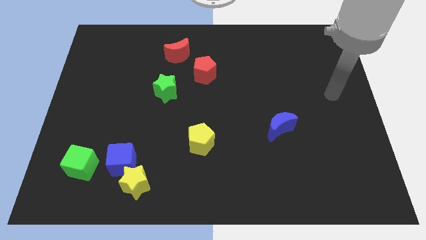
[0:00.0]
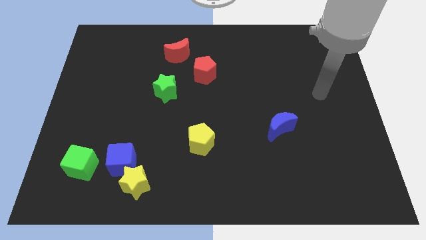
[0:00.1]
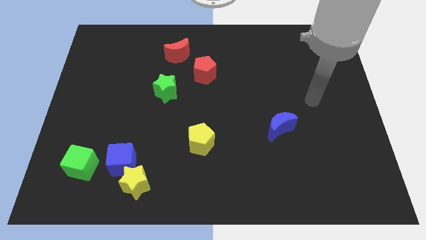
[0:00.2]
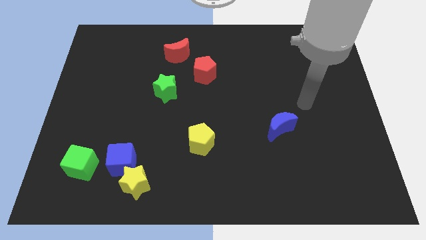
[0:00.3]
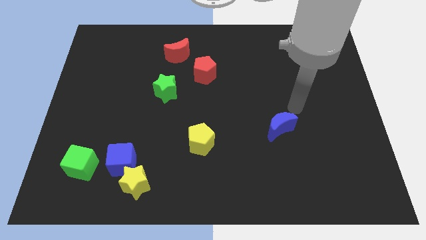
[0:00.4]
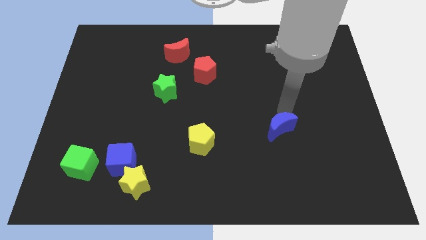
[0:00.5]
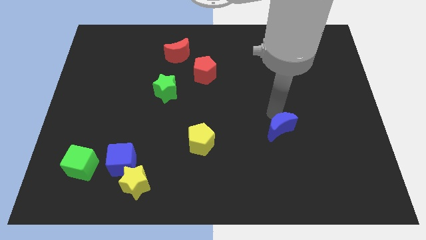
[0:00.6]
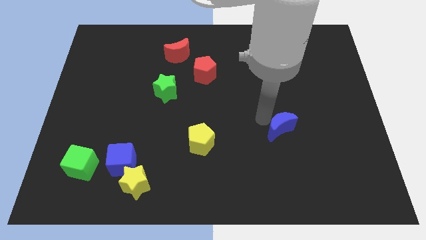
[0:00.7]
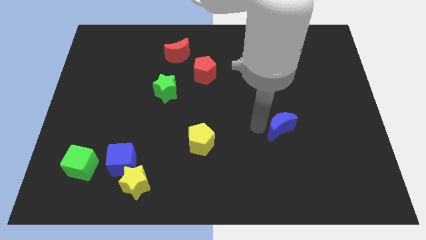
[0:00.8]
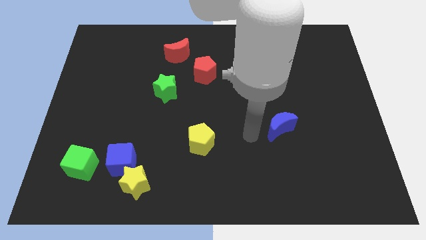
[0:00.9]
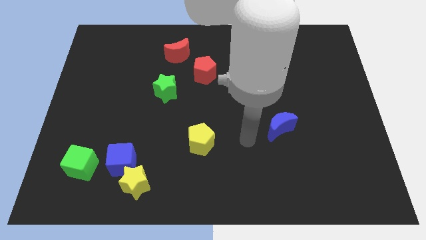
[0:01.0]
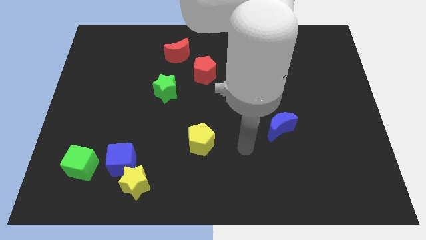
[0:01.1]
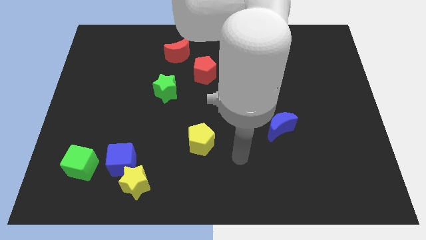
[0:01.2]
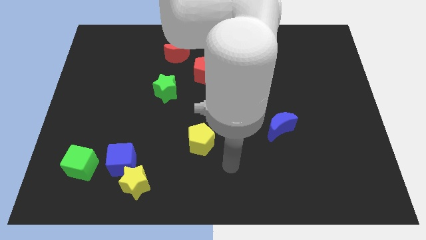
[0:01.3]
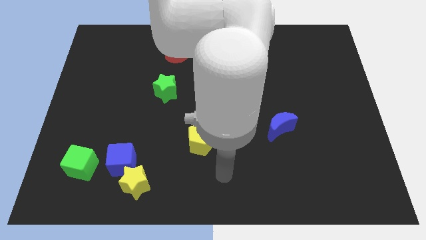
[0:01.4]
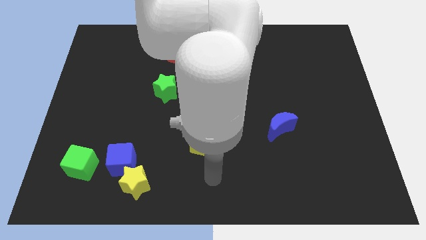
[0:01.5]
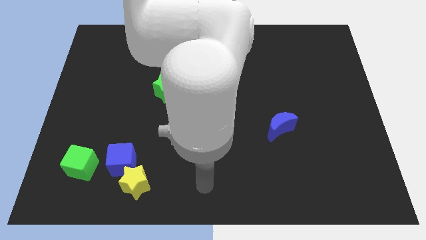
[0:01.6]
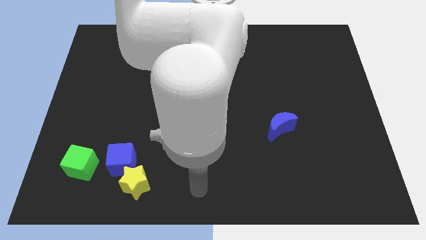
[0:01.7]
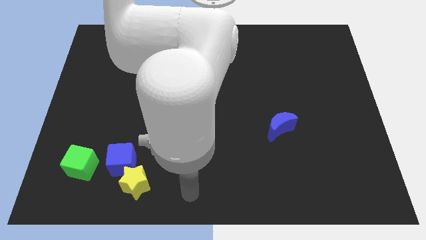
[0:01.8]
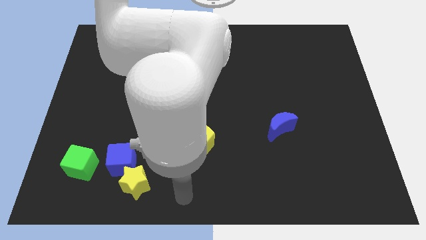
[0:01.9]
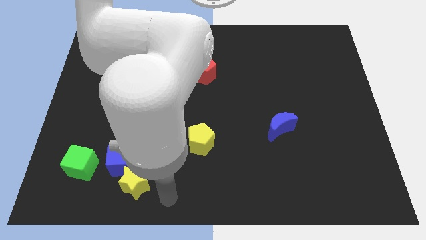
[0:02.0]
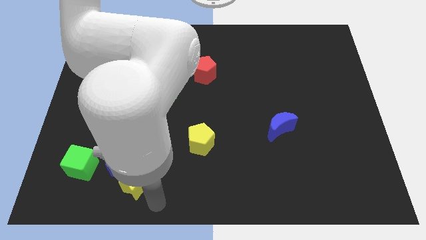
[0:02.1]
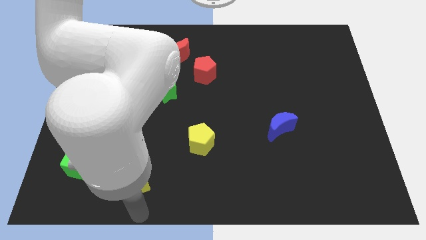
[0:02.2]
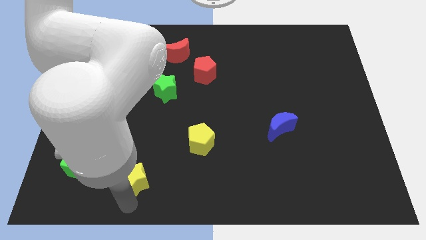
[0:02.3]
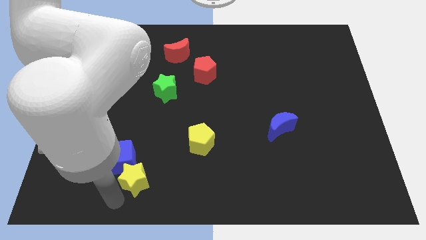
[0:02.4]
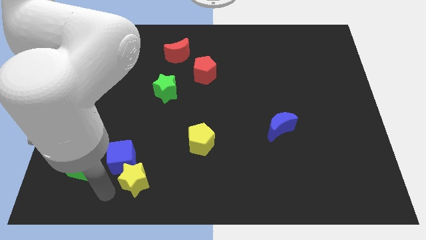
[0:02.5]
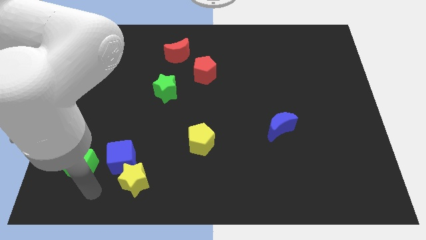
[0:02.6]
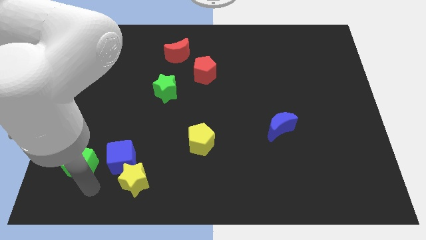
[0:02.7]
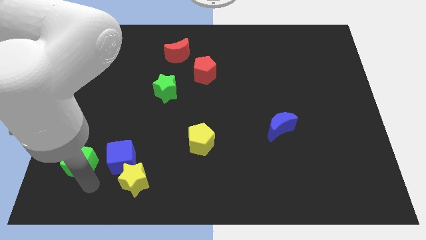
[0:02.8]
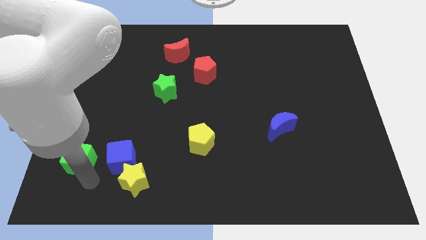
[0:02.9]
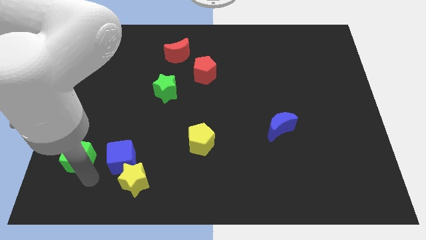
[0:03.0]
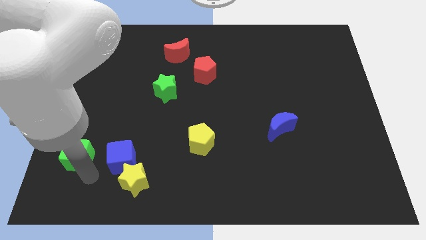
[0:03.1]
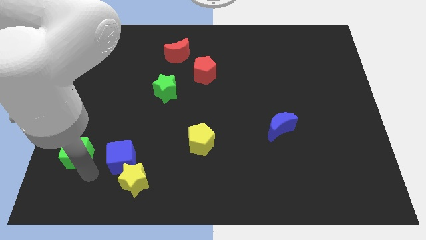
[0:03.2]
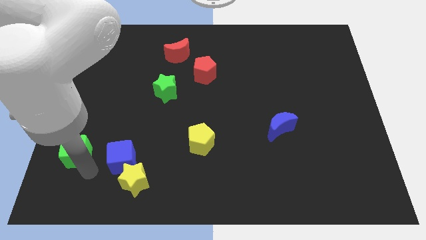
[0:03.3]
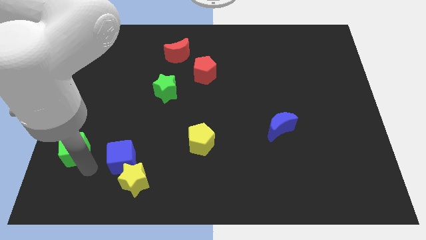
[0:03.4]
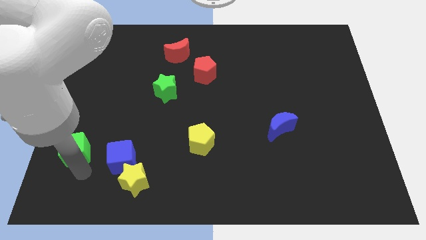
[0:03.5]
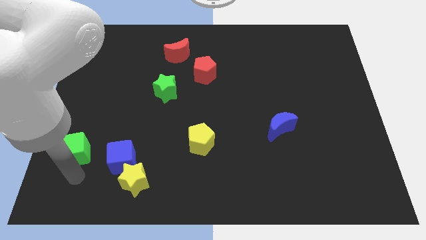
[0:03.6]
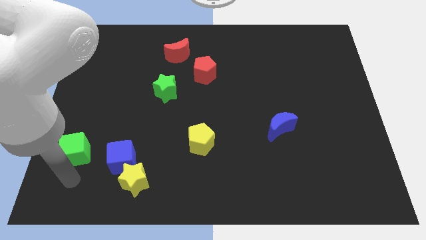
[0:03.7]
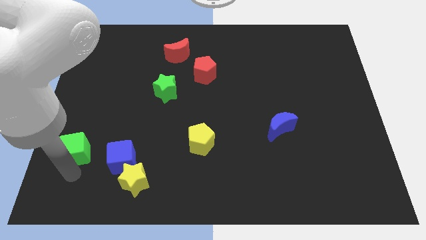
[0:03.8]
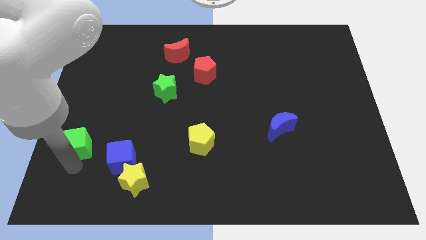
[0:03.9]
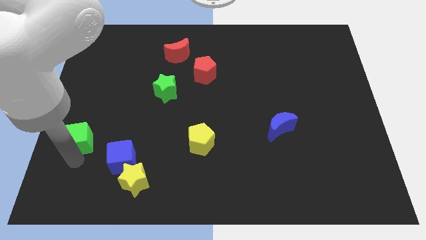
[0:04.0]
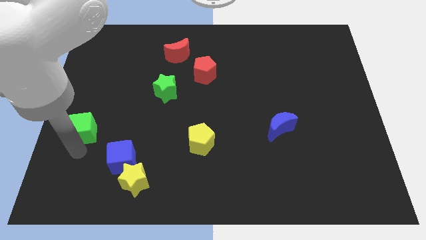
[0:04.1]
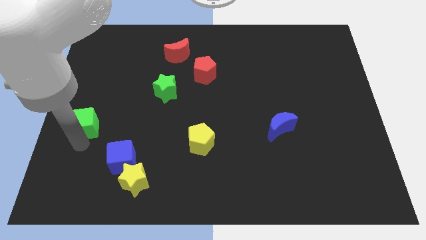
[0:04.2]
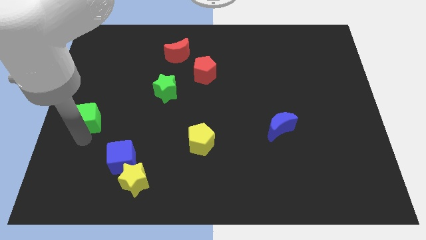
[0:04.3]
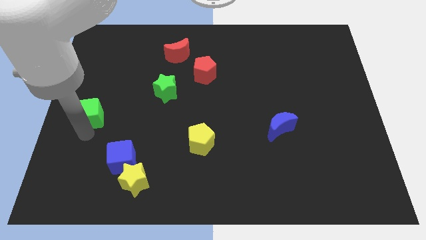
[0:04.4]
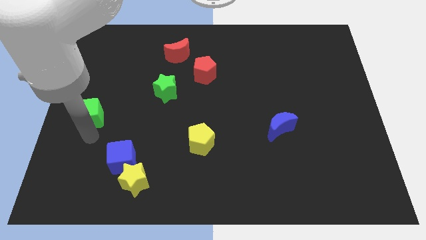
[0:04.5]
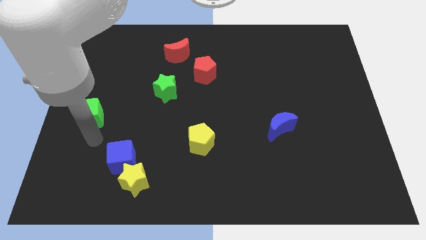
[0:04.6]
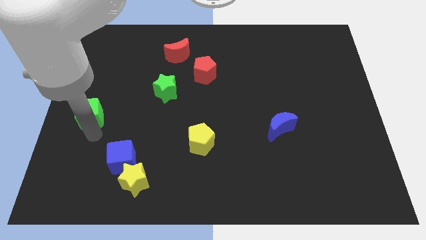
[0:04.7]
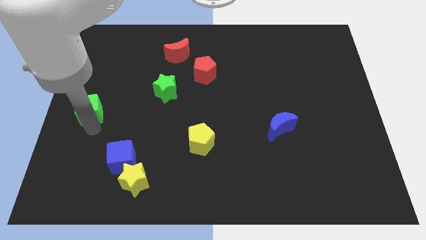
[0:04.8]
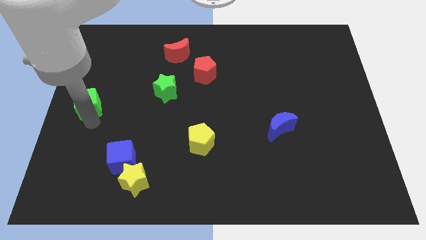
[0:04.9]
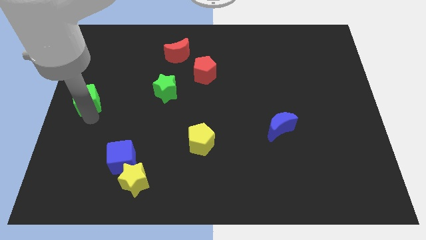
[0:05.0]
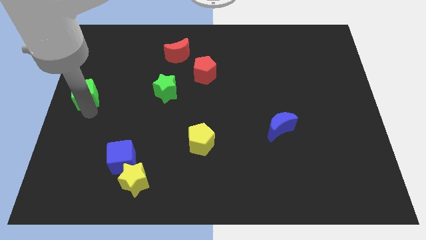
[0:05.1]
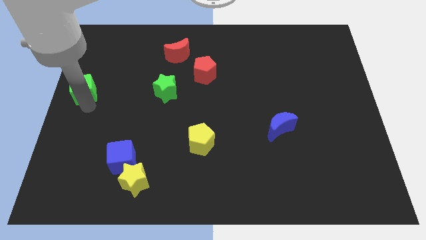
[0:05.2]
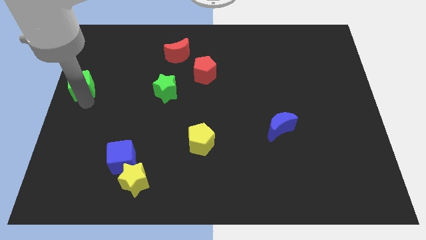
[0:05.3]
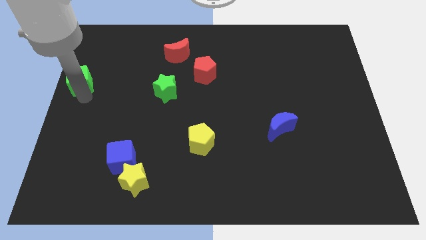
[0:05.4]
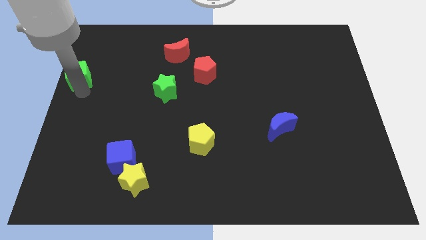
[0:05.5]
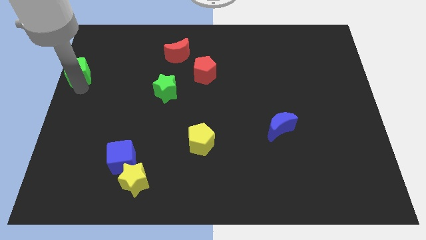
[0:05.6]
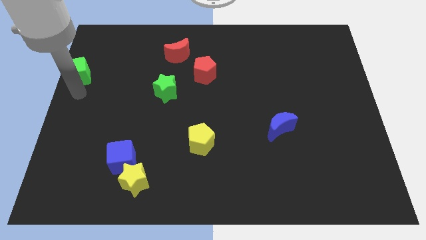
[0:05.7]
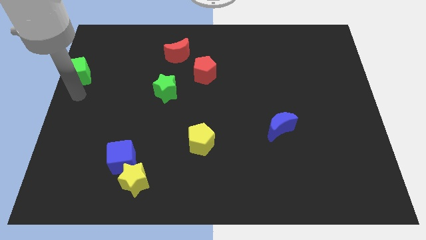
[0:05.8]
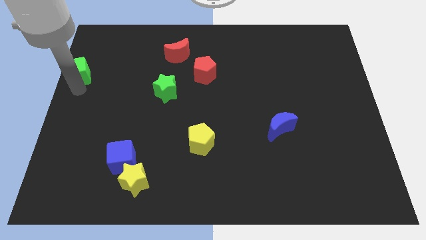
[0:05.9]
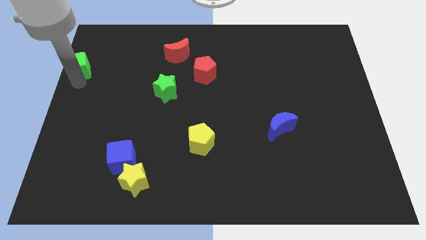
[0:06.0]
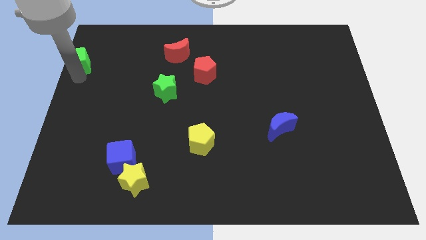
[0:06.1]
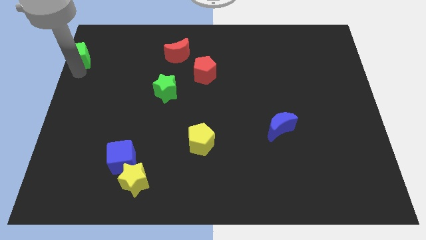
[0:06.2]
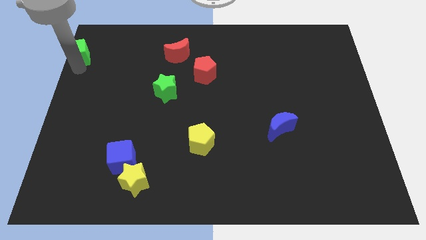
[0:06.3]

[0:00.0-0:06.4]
put the green cube to the top left corner
